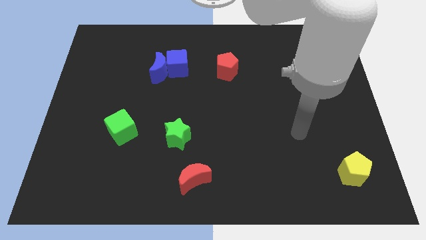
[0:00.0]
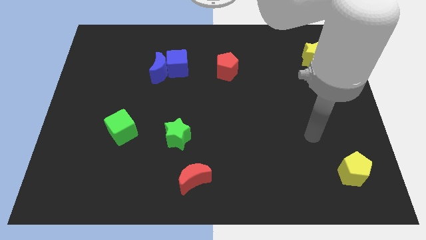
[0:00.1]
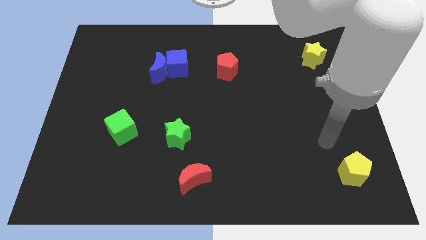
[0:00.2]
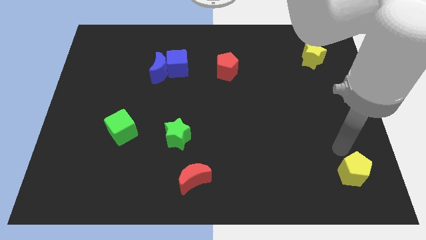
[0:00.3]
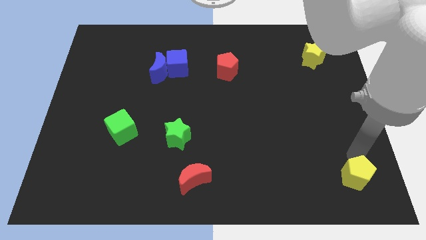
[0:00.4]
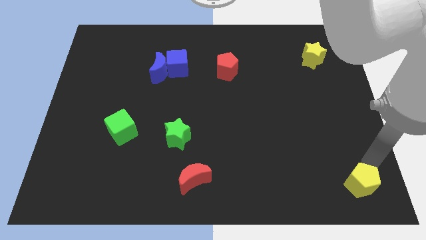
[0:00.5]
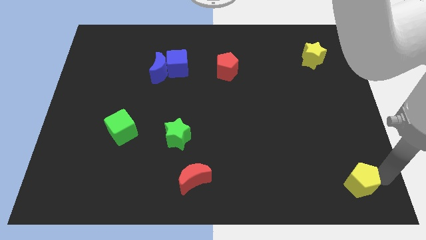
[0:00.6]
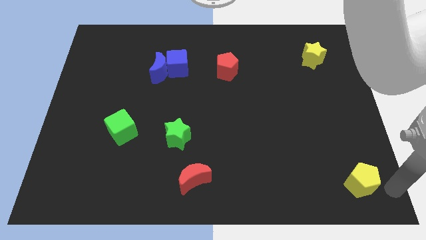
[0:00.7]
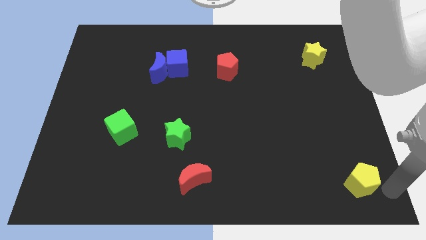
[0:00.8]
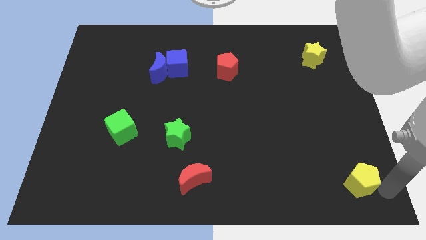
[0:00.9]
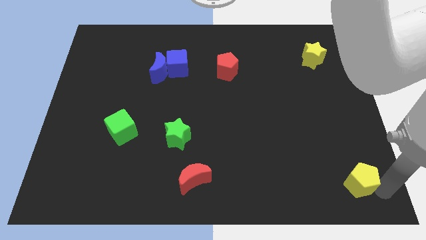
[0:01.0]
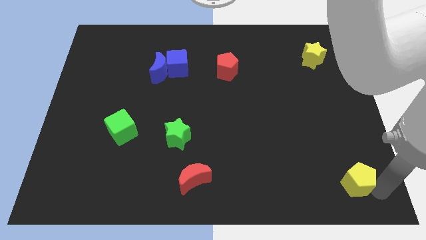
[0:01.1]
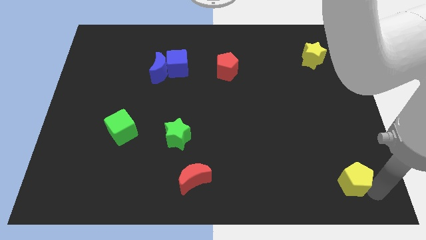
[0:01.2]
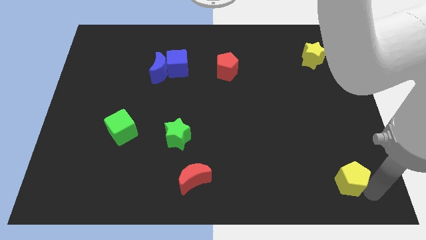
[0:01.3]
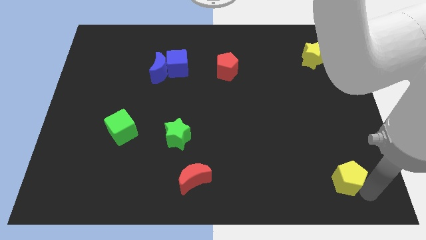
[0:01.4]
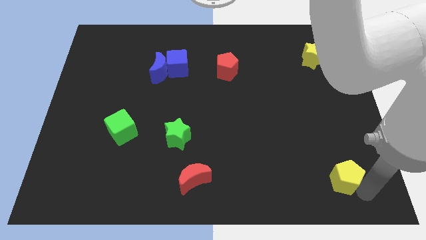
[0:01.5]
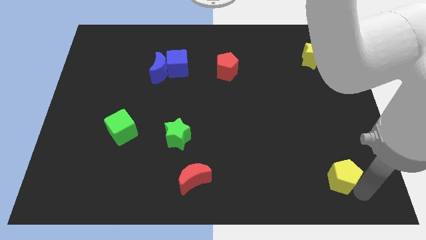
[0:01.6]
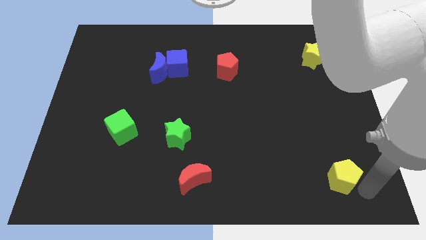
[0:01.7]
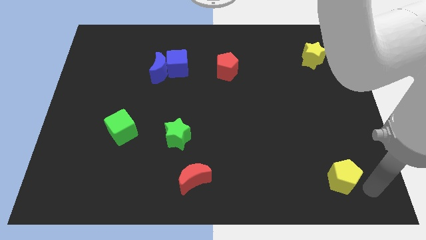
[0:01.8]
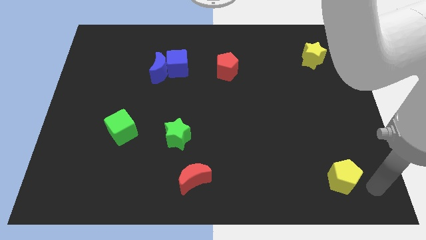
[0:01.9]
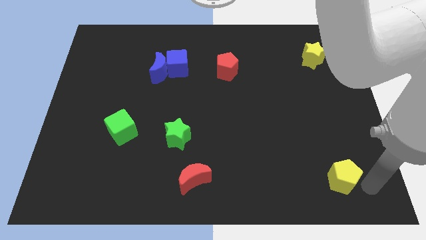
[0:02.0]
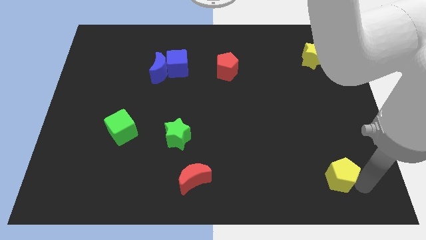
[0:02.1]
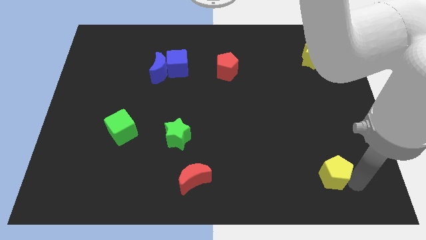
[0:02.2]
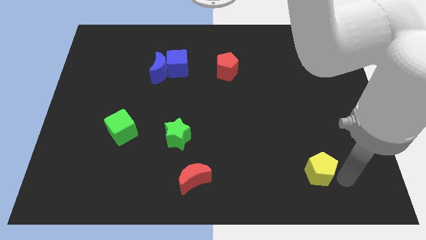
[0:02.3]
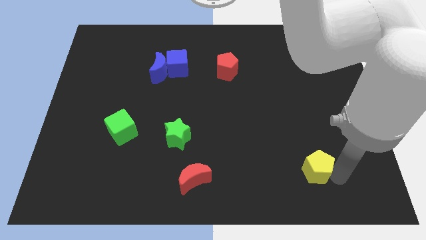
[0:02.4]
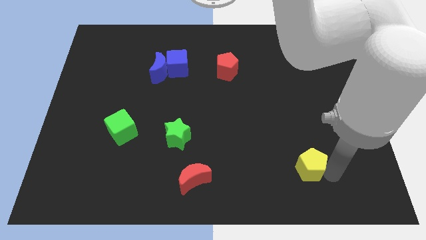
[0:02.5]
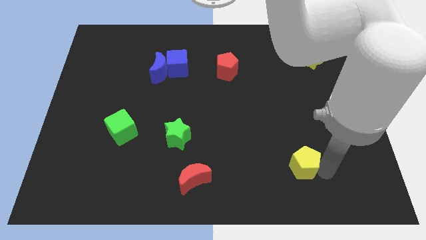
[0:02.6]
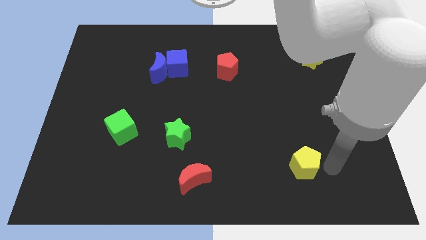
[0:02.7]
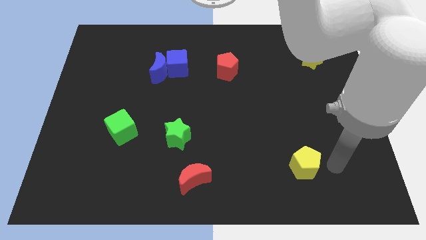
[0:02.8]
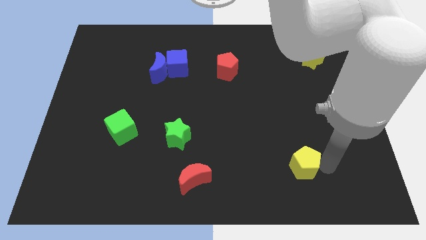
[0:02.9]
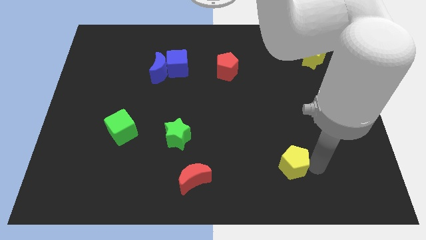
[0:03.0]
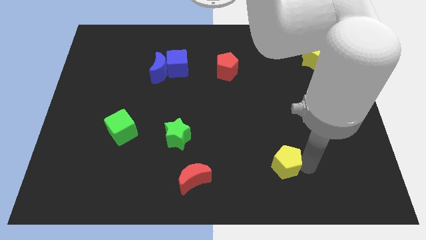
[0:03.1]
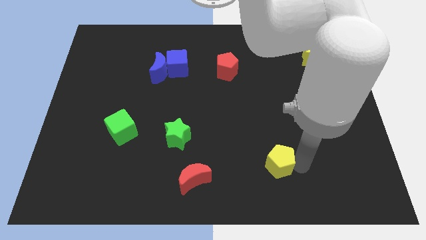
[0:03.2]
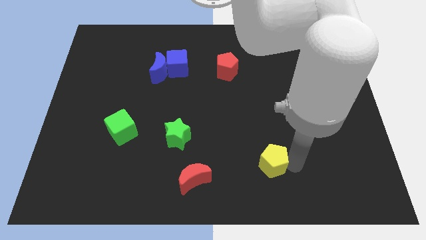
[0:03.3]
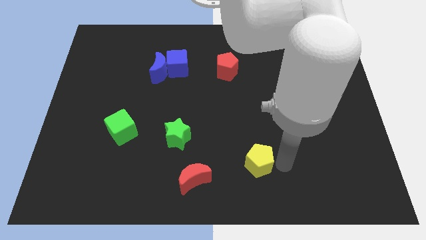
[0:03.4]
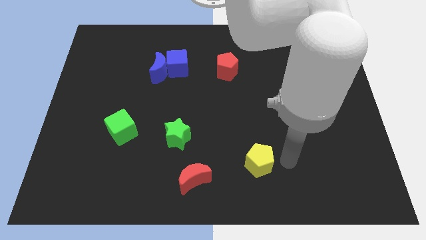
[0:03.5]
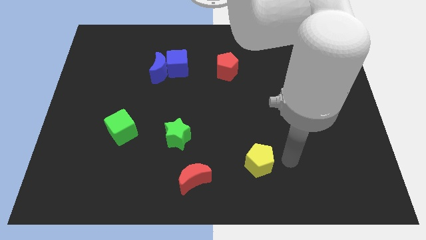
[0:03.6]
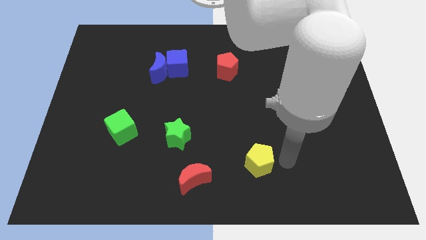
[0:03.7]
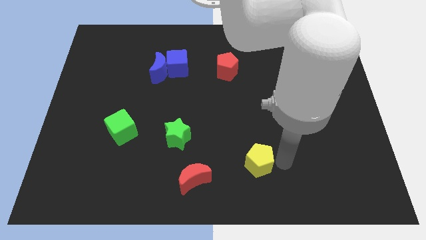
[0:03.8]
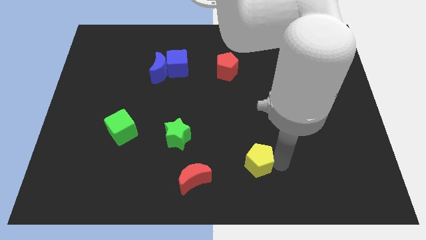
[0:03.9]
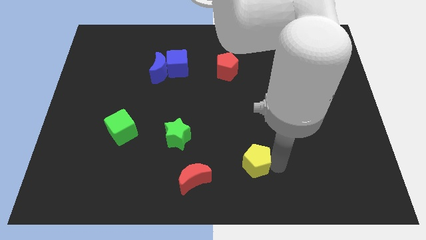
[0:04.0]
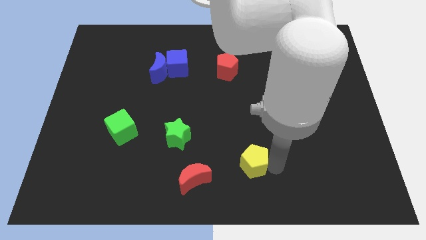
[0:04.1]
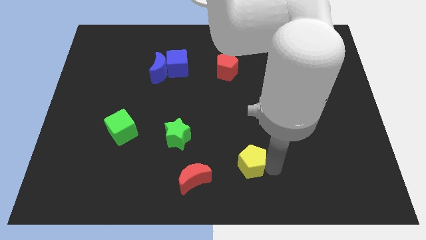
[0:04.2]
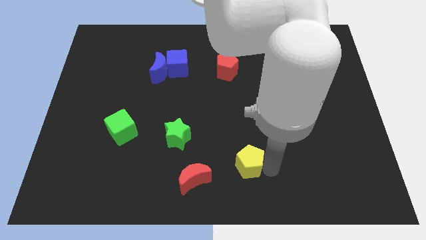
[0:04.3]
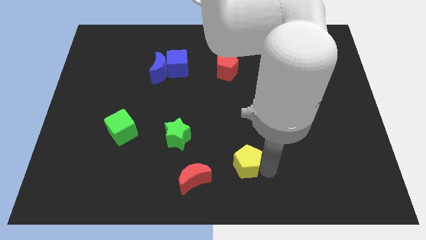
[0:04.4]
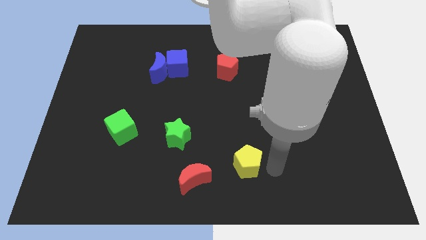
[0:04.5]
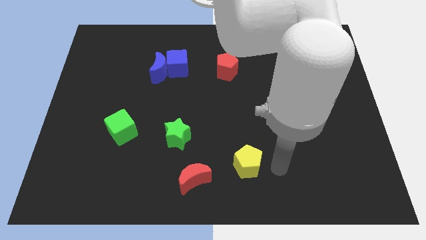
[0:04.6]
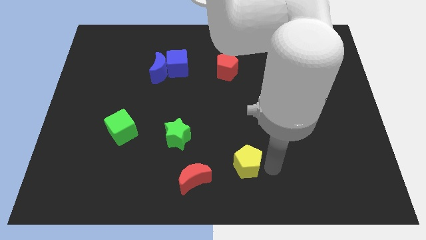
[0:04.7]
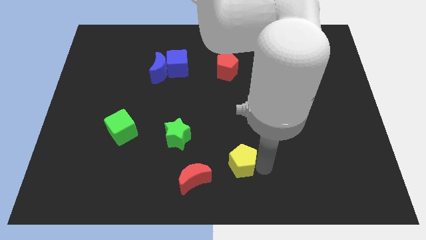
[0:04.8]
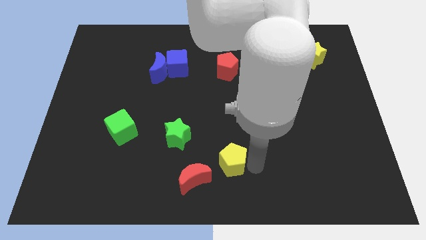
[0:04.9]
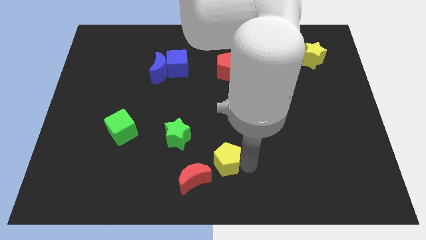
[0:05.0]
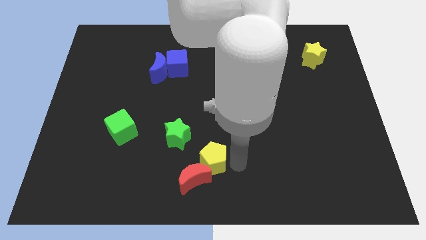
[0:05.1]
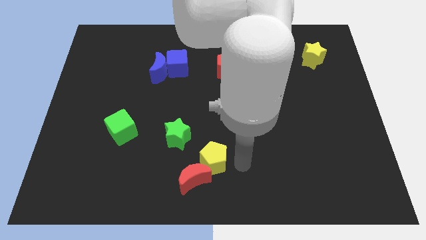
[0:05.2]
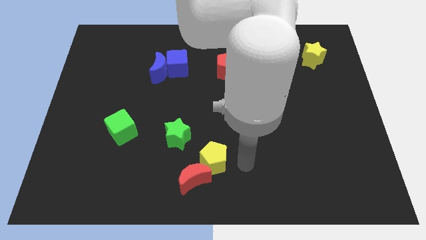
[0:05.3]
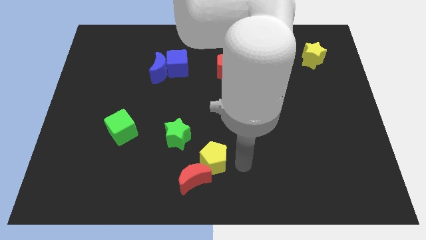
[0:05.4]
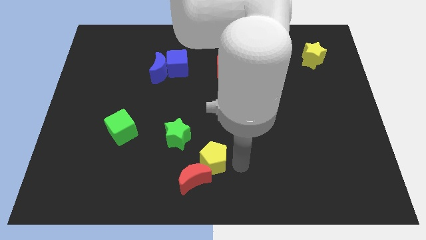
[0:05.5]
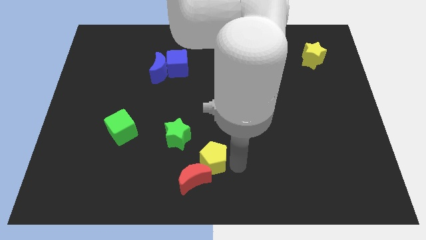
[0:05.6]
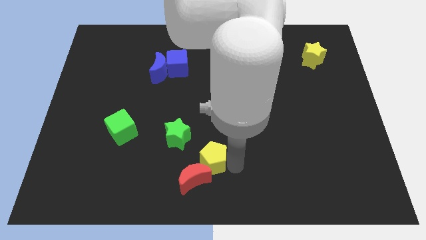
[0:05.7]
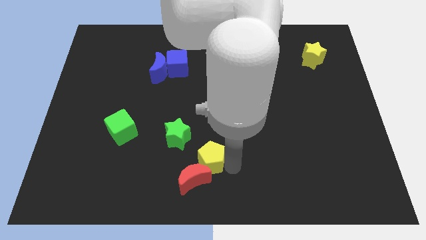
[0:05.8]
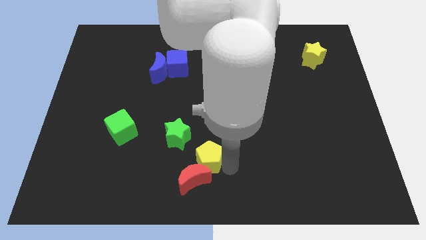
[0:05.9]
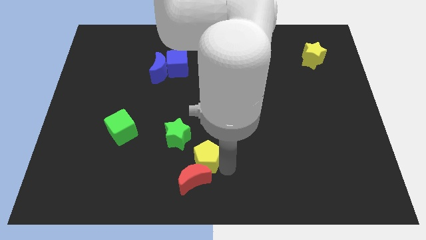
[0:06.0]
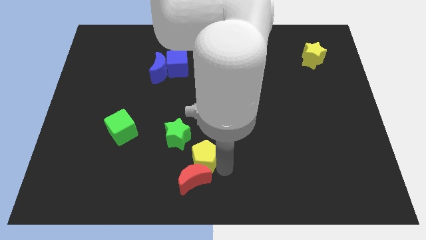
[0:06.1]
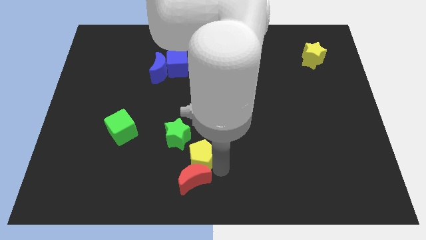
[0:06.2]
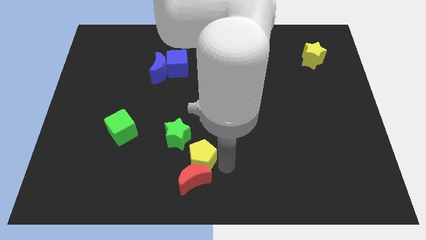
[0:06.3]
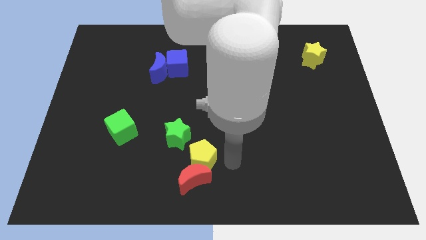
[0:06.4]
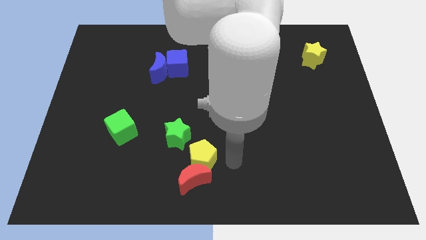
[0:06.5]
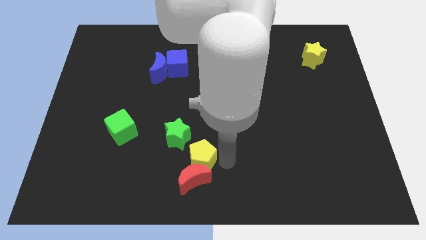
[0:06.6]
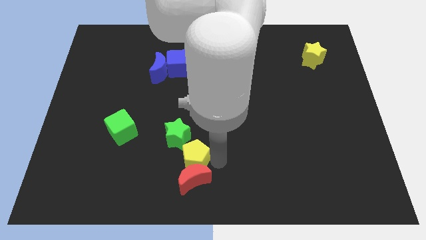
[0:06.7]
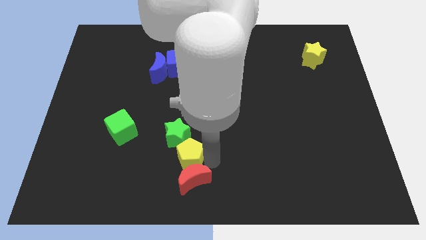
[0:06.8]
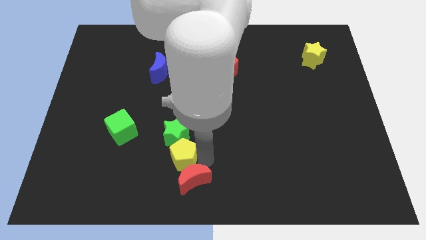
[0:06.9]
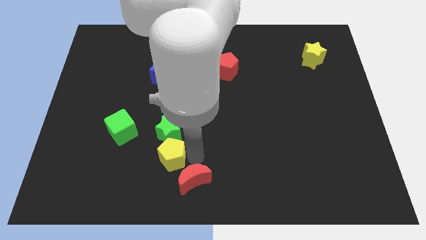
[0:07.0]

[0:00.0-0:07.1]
move the yellow pentagon to the left of the red moon

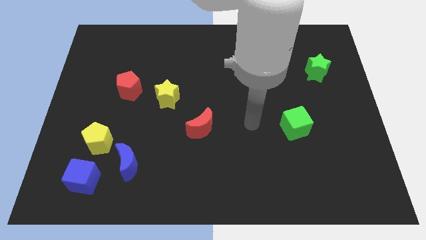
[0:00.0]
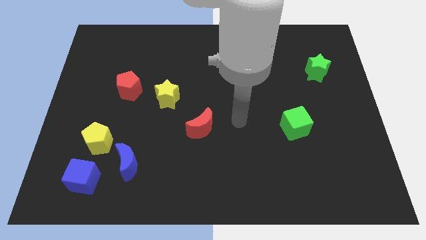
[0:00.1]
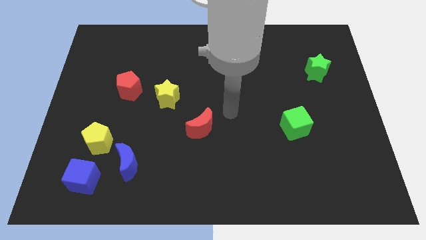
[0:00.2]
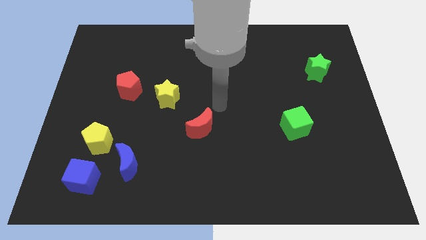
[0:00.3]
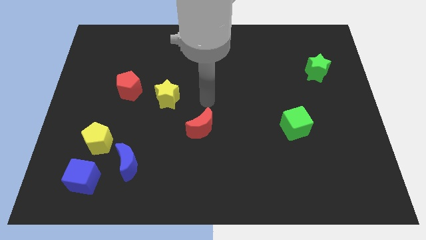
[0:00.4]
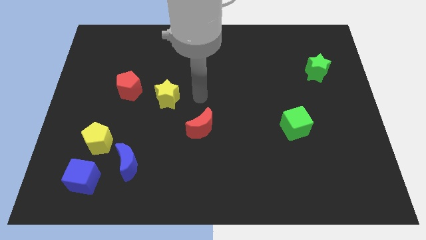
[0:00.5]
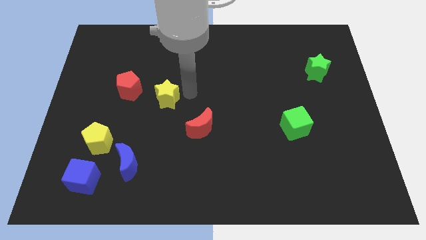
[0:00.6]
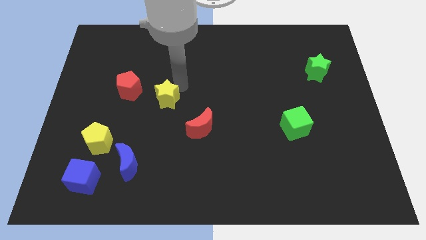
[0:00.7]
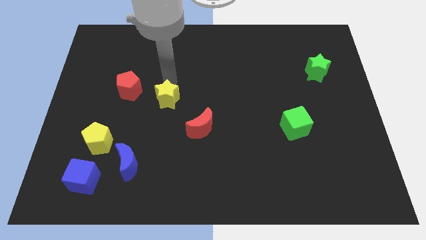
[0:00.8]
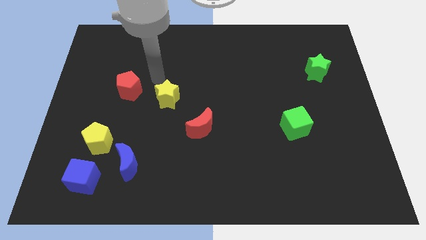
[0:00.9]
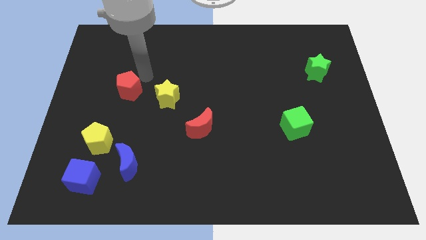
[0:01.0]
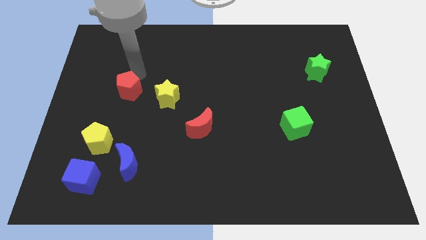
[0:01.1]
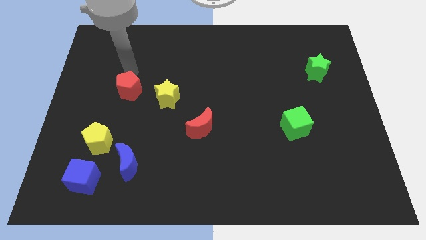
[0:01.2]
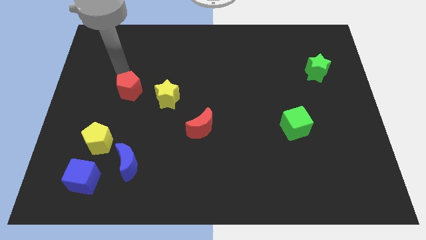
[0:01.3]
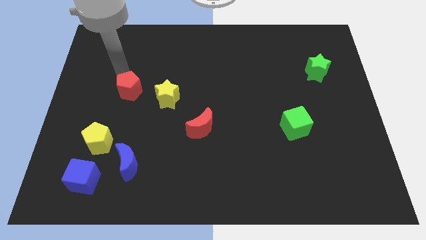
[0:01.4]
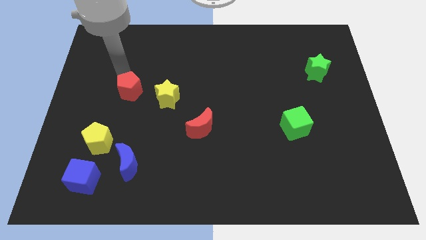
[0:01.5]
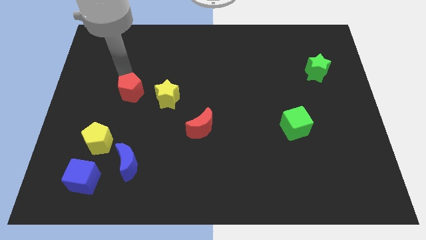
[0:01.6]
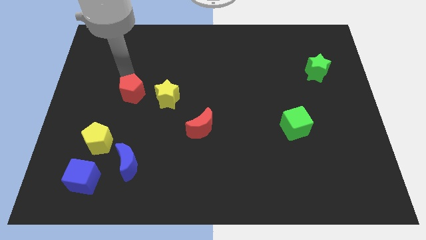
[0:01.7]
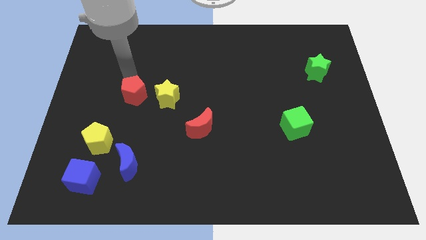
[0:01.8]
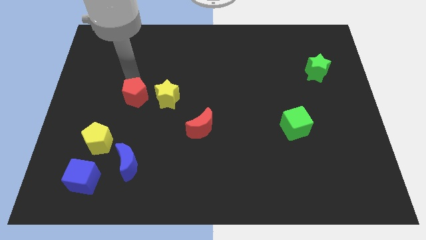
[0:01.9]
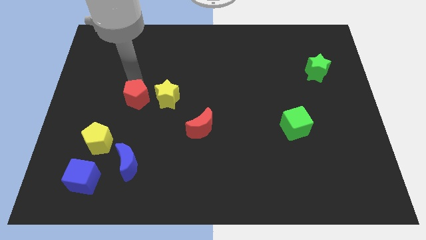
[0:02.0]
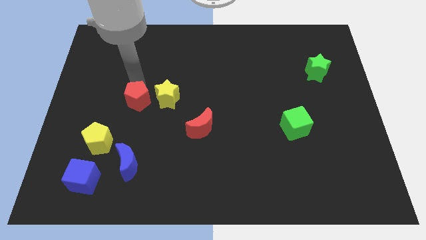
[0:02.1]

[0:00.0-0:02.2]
move the red pentagon diagonally down and to the left of the yellow star
